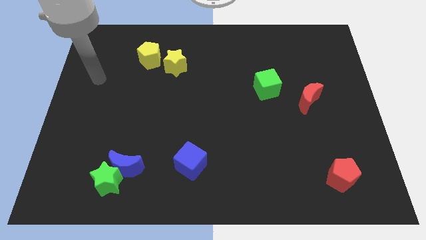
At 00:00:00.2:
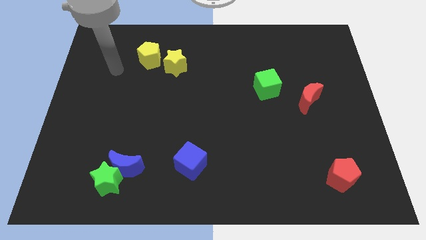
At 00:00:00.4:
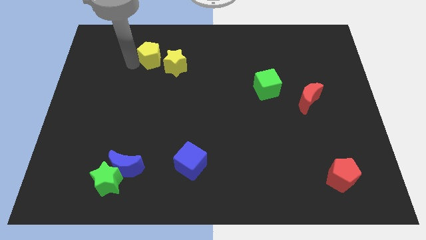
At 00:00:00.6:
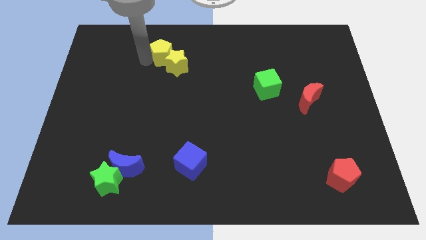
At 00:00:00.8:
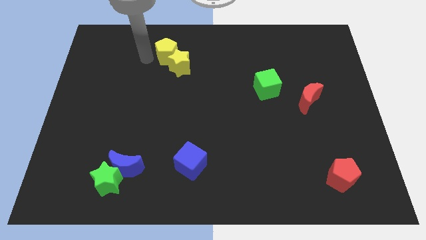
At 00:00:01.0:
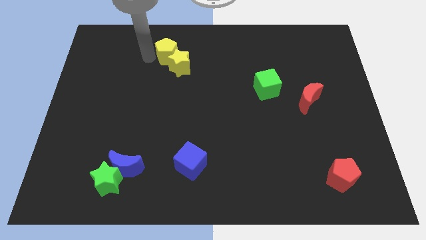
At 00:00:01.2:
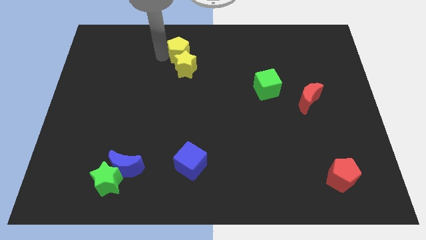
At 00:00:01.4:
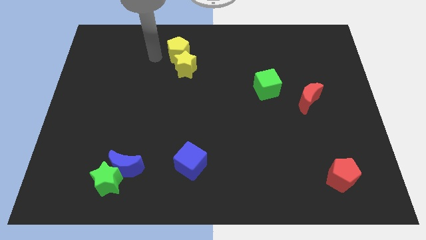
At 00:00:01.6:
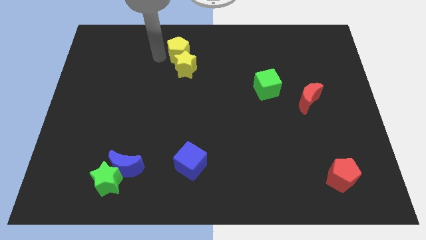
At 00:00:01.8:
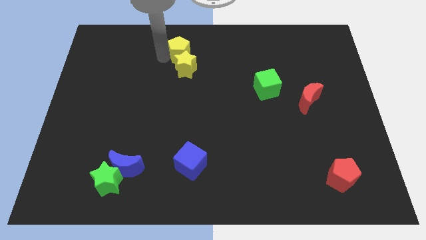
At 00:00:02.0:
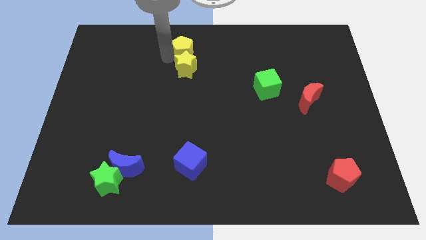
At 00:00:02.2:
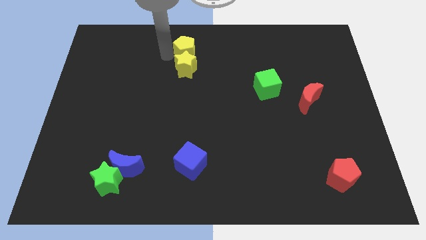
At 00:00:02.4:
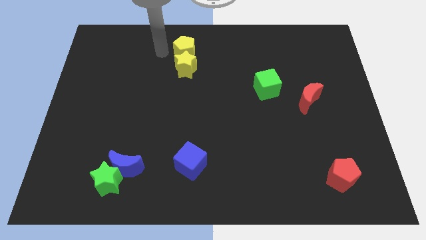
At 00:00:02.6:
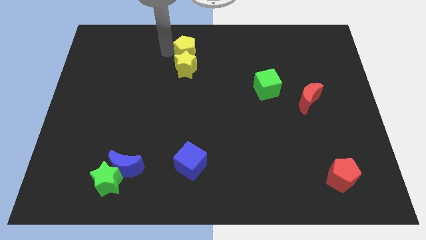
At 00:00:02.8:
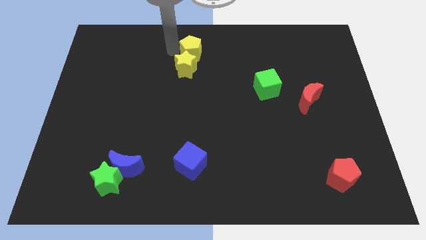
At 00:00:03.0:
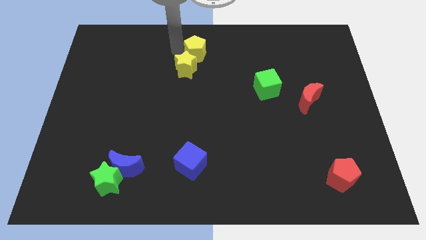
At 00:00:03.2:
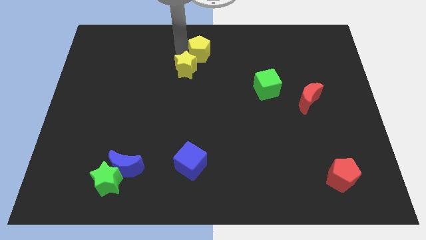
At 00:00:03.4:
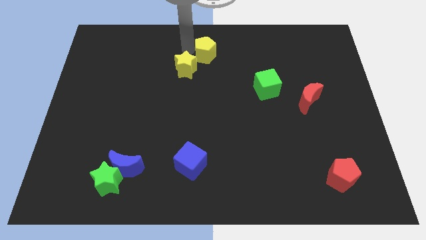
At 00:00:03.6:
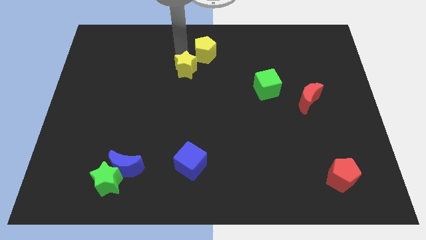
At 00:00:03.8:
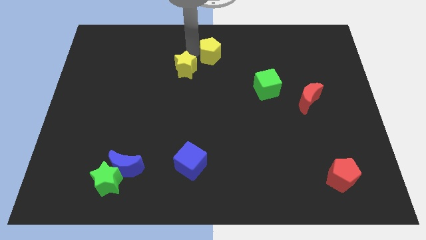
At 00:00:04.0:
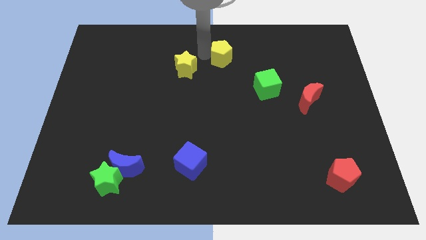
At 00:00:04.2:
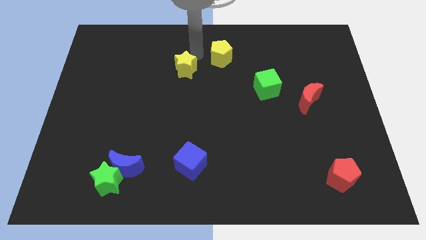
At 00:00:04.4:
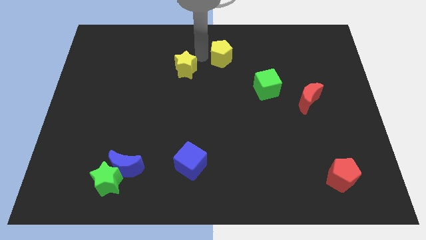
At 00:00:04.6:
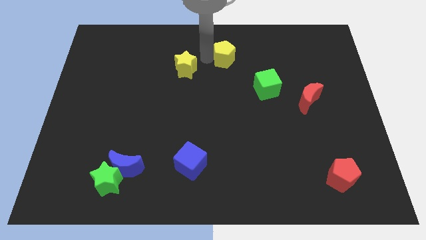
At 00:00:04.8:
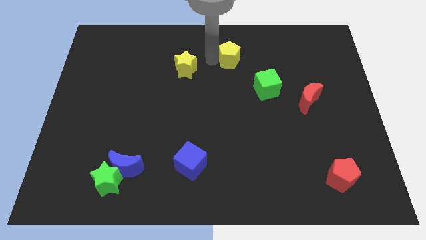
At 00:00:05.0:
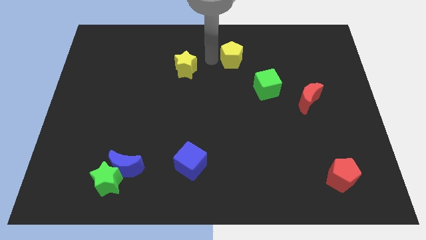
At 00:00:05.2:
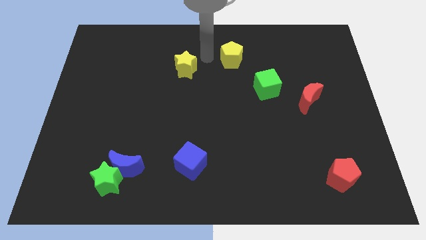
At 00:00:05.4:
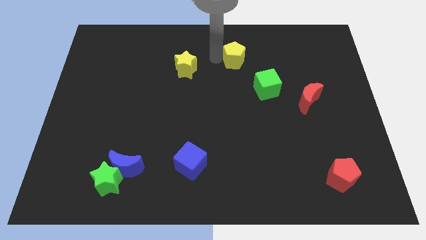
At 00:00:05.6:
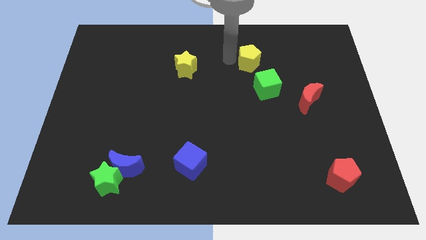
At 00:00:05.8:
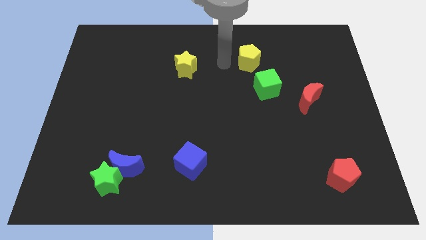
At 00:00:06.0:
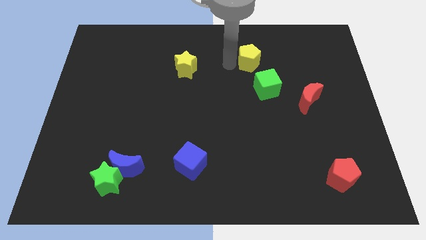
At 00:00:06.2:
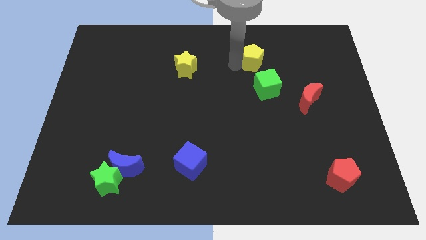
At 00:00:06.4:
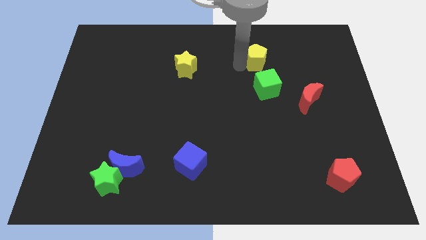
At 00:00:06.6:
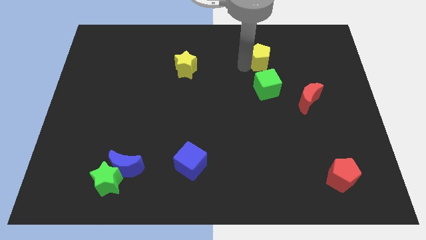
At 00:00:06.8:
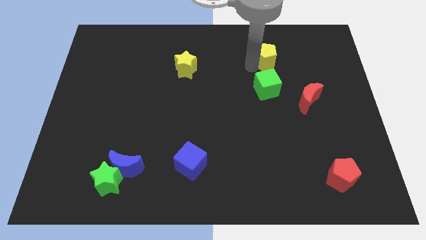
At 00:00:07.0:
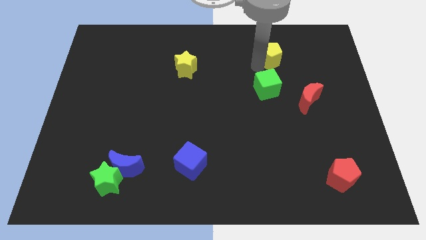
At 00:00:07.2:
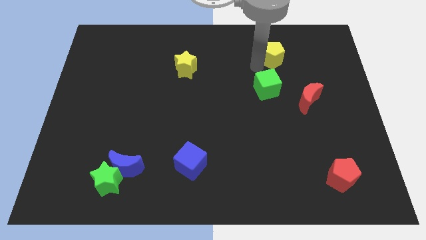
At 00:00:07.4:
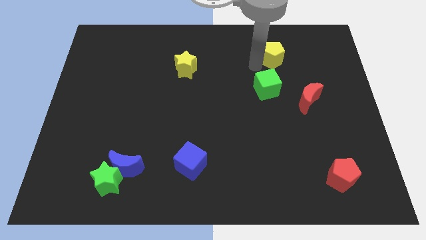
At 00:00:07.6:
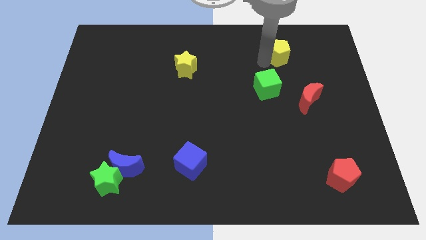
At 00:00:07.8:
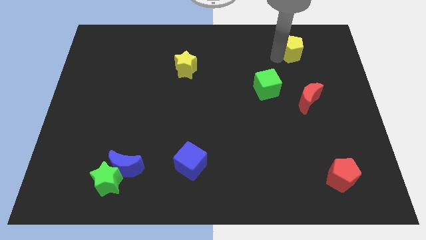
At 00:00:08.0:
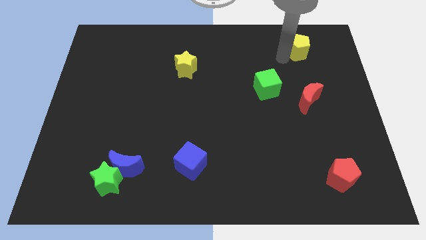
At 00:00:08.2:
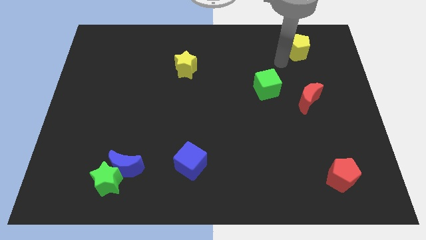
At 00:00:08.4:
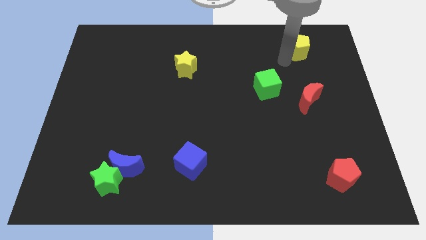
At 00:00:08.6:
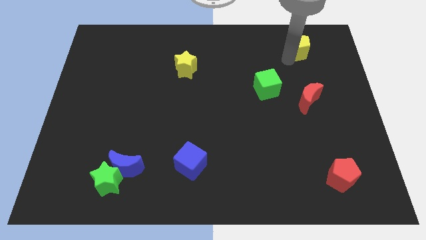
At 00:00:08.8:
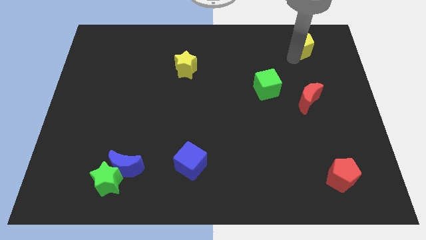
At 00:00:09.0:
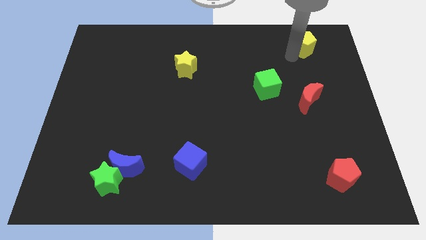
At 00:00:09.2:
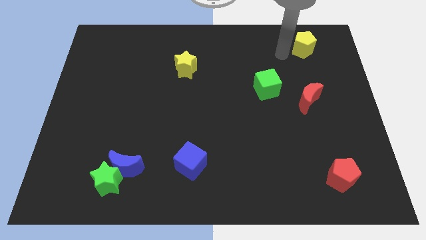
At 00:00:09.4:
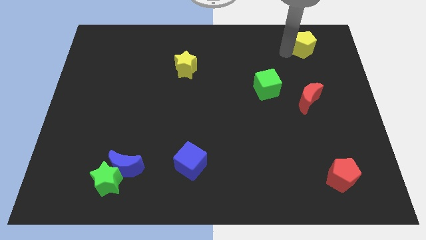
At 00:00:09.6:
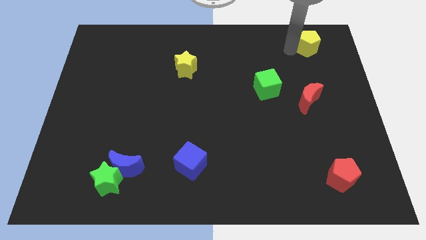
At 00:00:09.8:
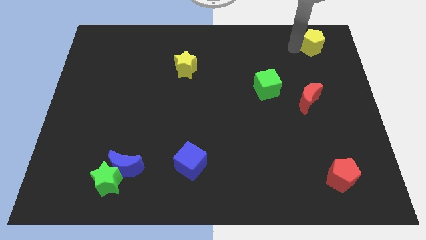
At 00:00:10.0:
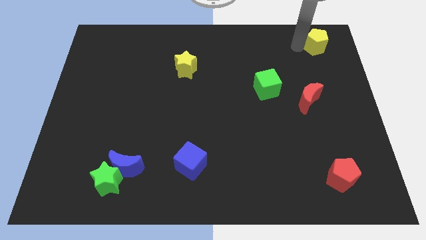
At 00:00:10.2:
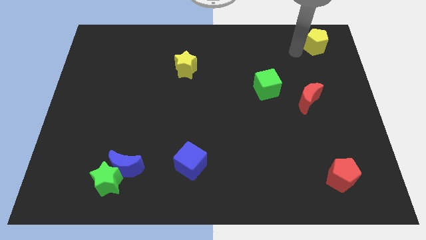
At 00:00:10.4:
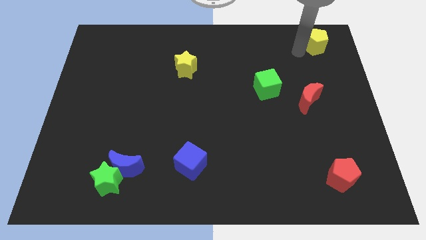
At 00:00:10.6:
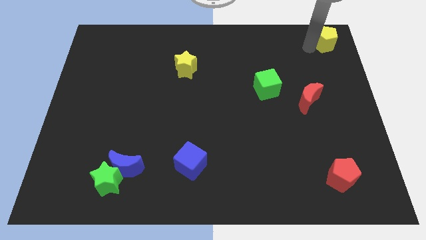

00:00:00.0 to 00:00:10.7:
push the yellow pentagon to the top right of the board

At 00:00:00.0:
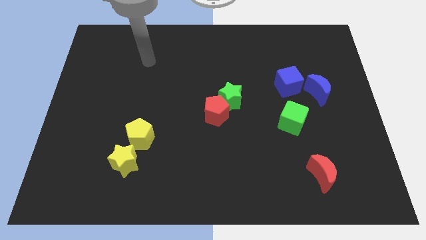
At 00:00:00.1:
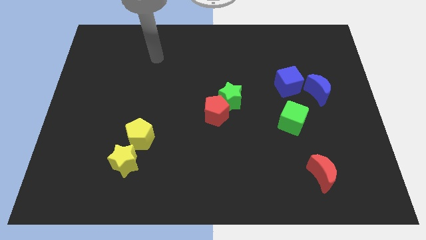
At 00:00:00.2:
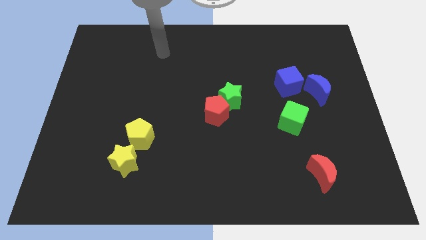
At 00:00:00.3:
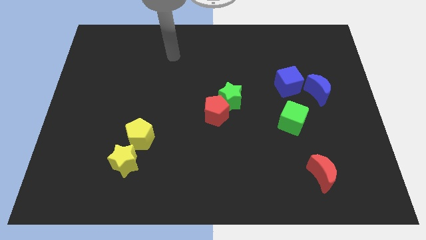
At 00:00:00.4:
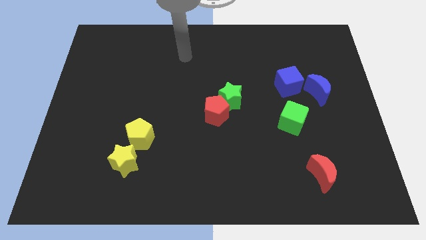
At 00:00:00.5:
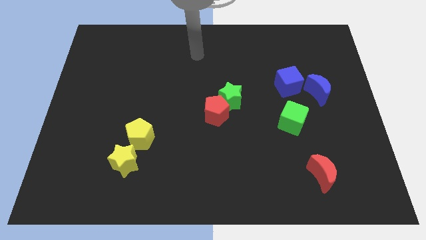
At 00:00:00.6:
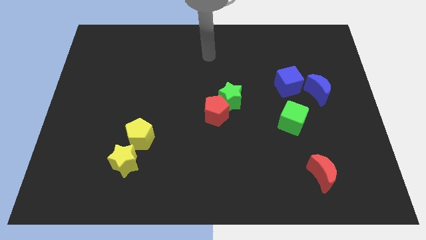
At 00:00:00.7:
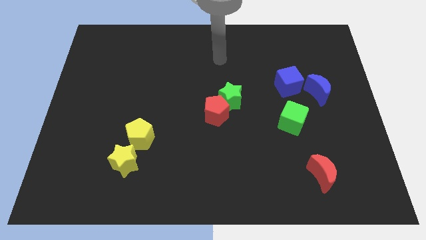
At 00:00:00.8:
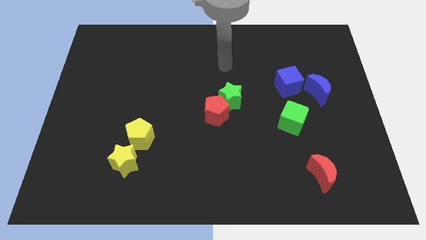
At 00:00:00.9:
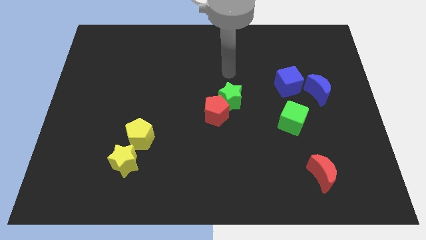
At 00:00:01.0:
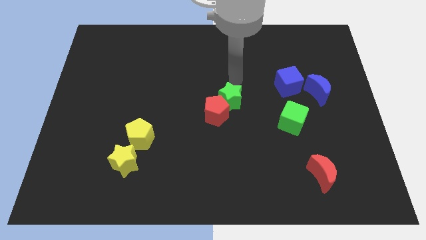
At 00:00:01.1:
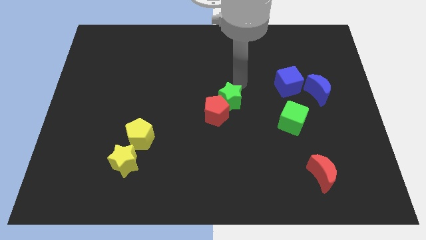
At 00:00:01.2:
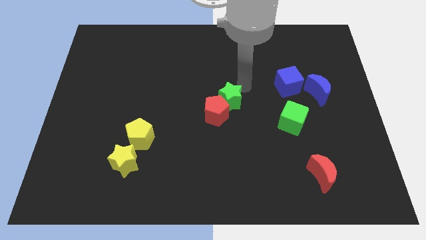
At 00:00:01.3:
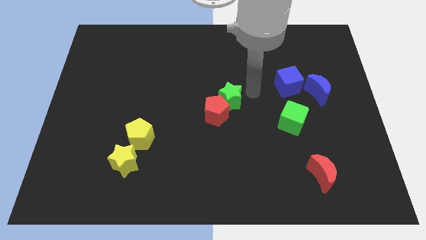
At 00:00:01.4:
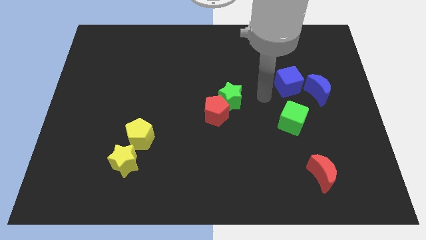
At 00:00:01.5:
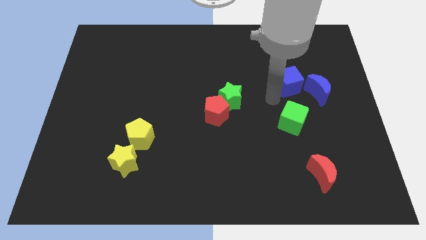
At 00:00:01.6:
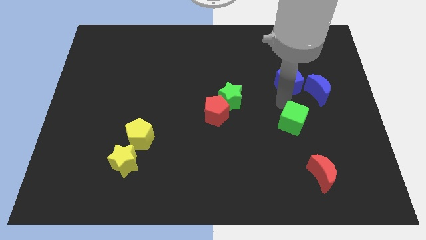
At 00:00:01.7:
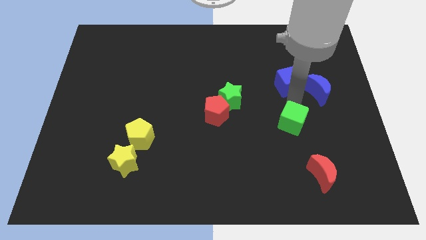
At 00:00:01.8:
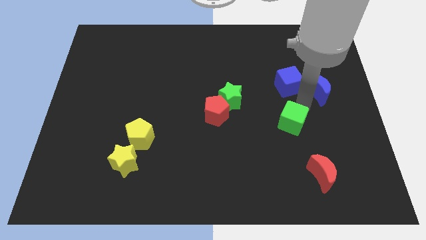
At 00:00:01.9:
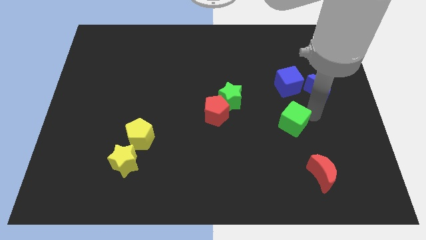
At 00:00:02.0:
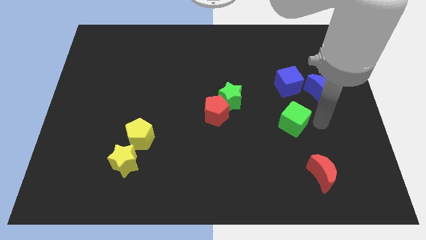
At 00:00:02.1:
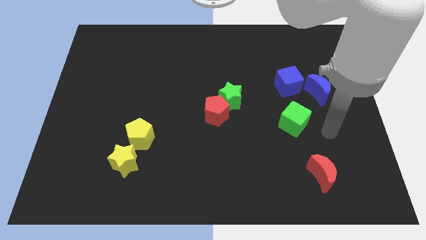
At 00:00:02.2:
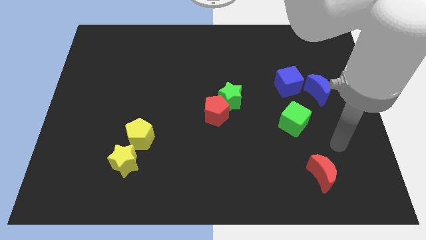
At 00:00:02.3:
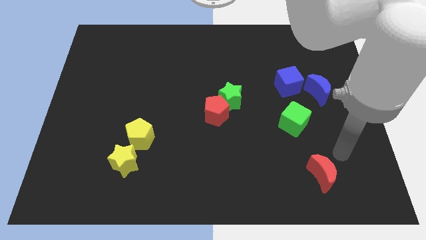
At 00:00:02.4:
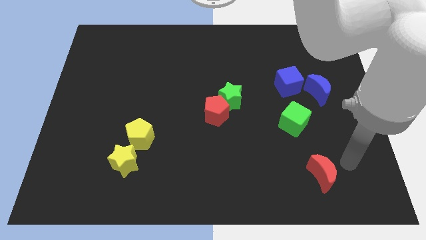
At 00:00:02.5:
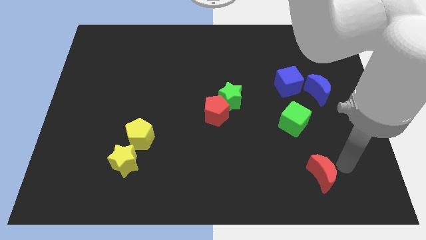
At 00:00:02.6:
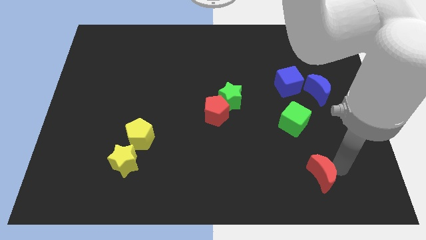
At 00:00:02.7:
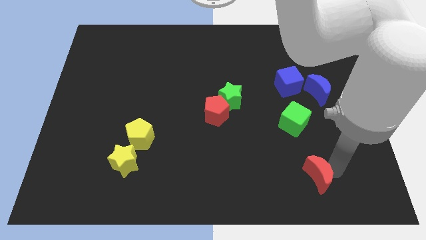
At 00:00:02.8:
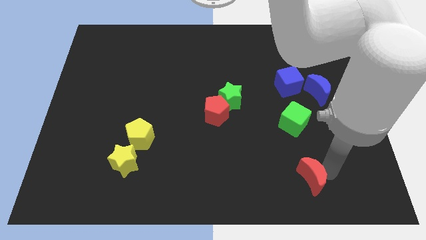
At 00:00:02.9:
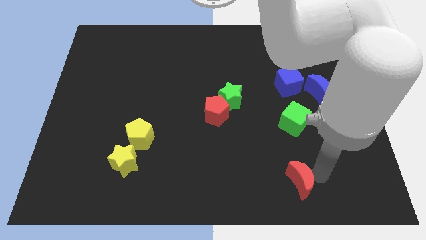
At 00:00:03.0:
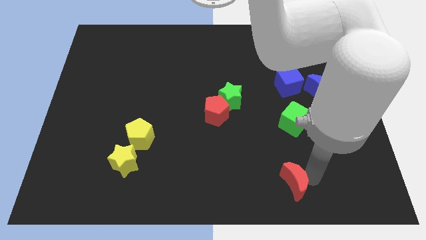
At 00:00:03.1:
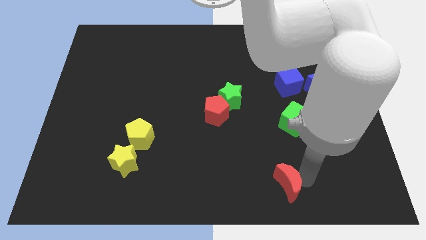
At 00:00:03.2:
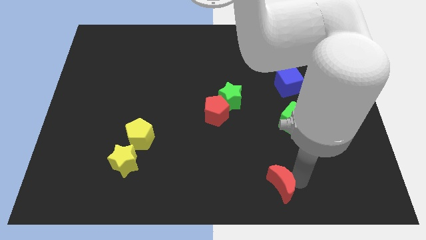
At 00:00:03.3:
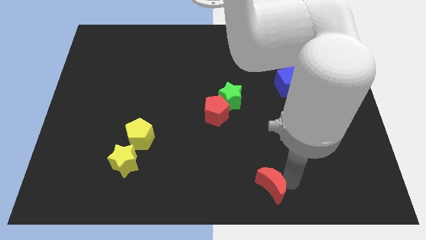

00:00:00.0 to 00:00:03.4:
slide the red moon to the bottom side
